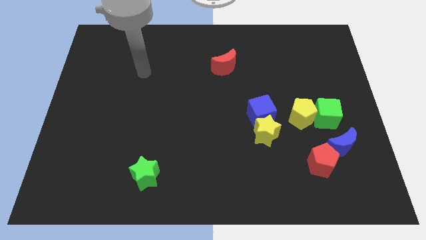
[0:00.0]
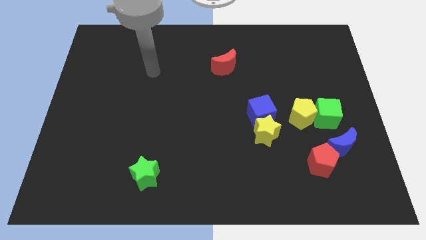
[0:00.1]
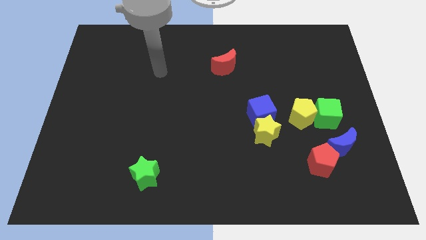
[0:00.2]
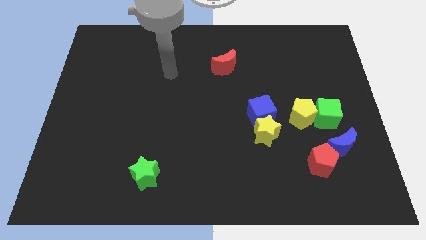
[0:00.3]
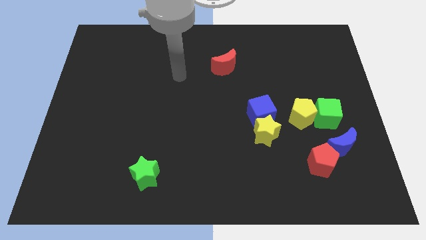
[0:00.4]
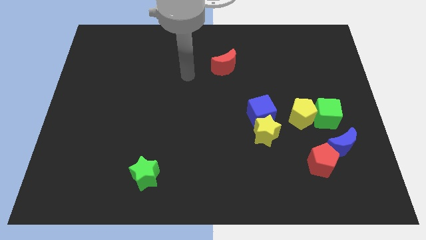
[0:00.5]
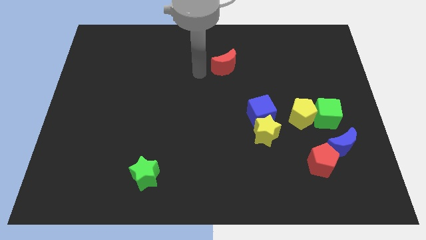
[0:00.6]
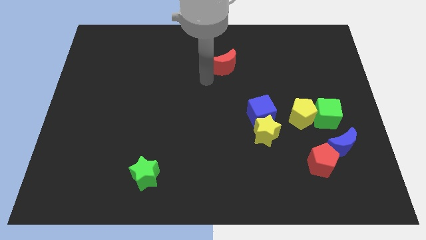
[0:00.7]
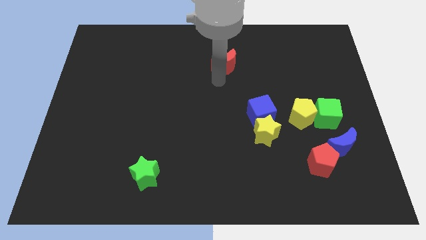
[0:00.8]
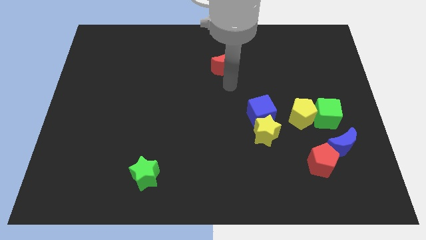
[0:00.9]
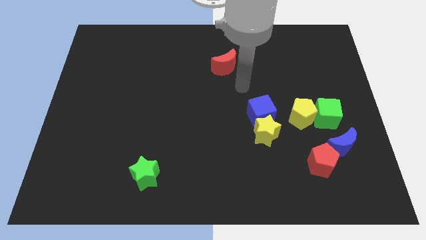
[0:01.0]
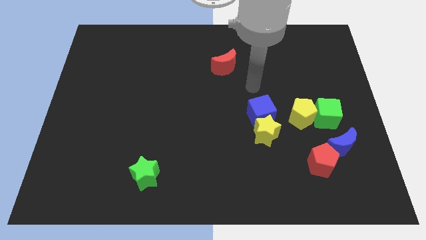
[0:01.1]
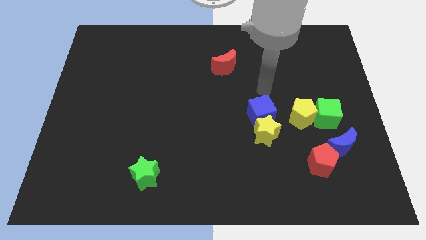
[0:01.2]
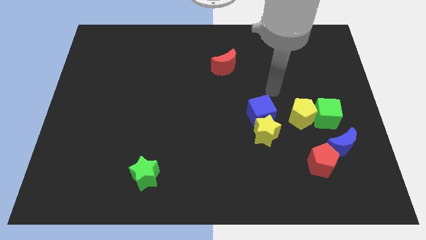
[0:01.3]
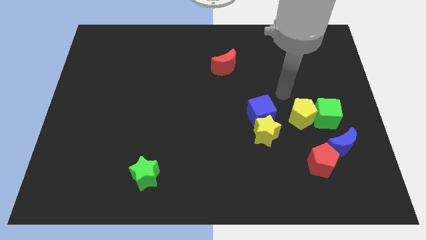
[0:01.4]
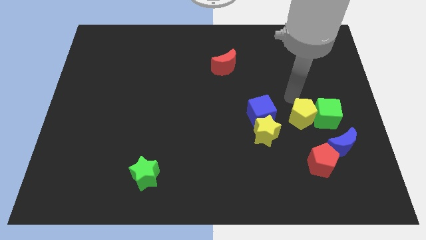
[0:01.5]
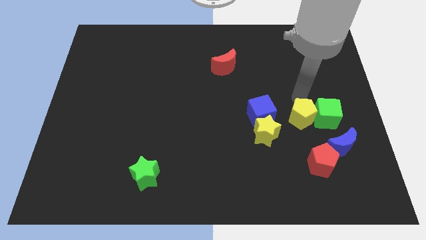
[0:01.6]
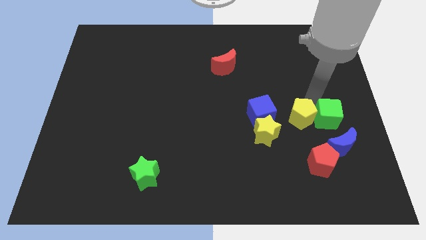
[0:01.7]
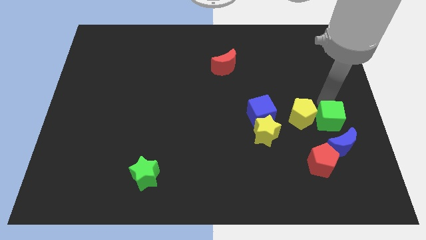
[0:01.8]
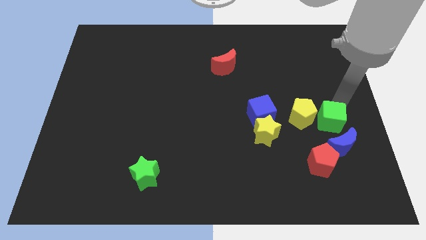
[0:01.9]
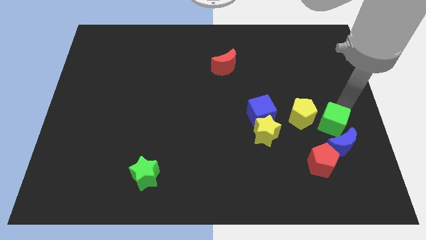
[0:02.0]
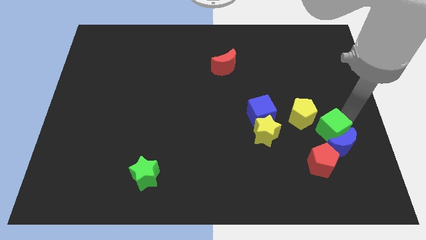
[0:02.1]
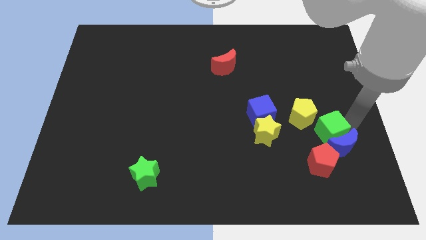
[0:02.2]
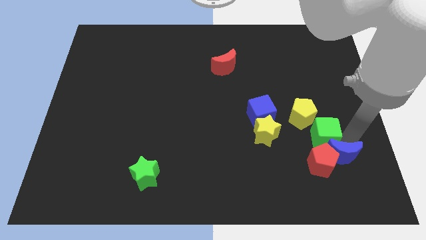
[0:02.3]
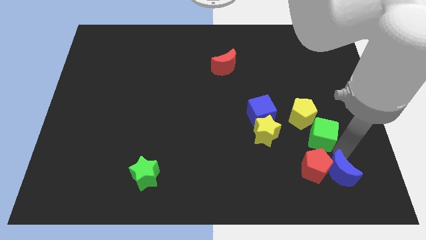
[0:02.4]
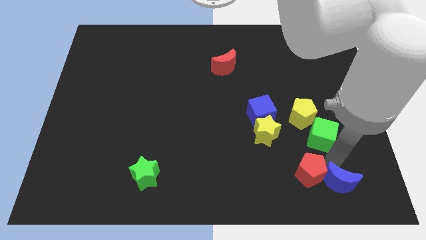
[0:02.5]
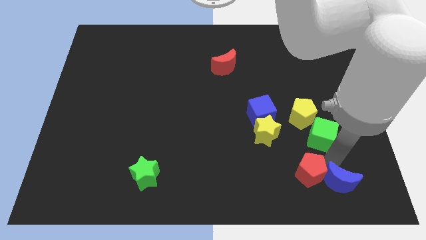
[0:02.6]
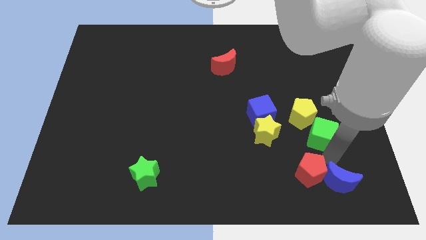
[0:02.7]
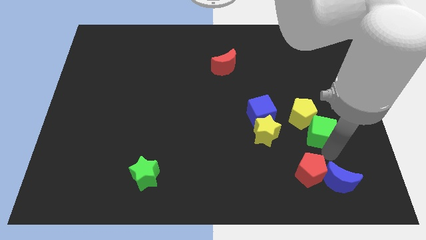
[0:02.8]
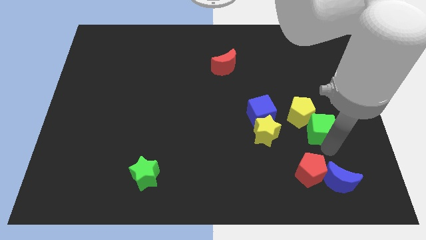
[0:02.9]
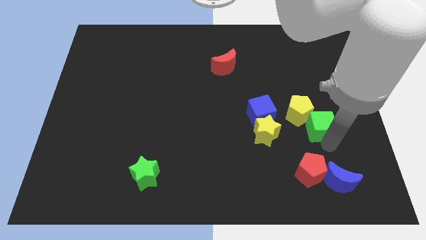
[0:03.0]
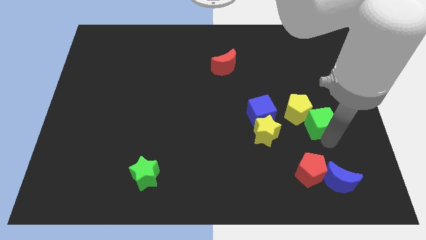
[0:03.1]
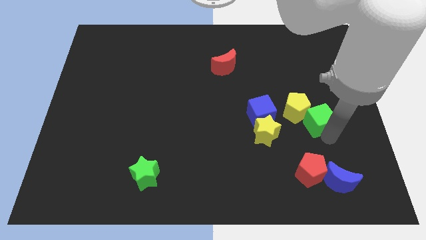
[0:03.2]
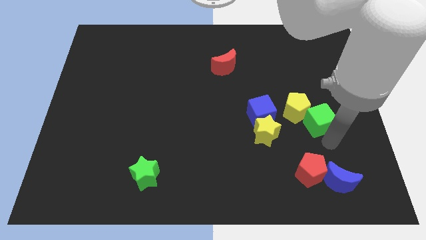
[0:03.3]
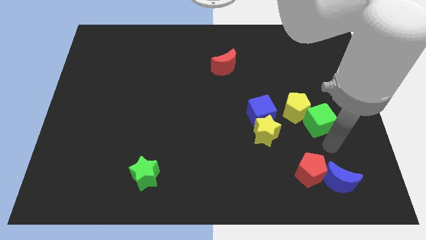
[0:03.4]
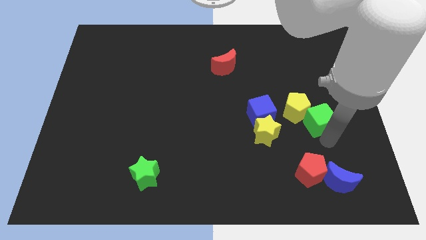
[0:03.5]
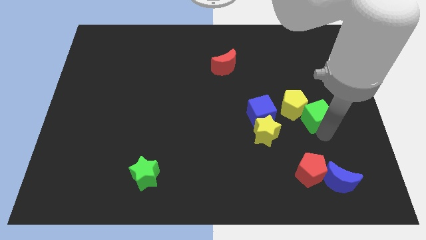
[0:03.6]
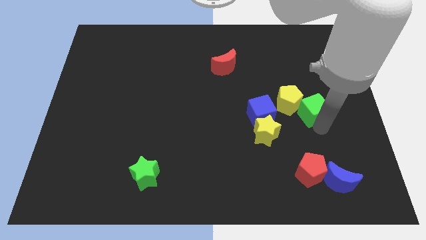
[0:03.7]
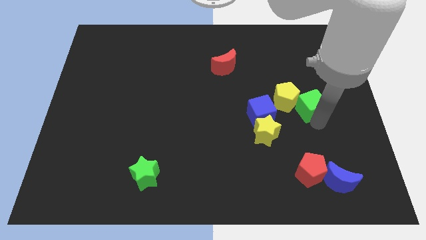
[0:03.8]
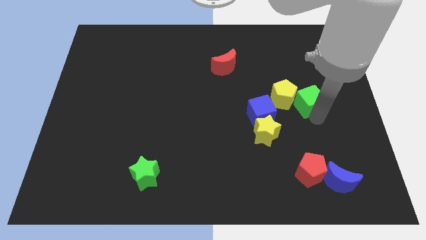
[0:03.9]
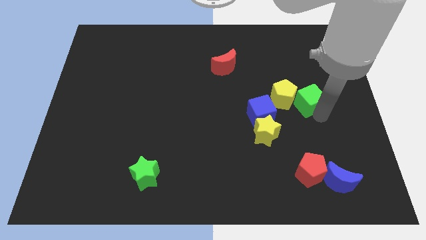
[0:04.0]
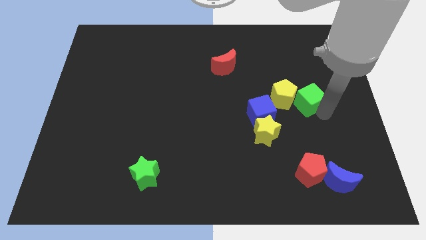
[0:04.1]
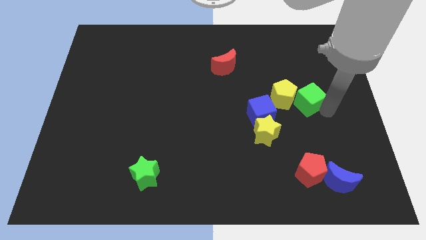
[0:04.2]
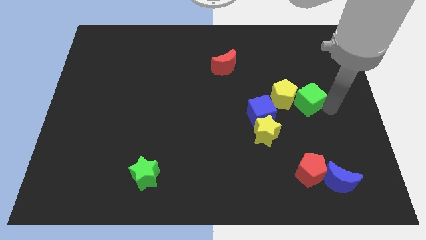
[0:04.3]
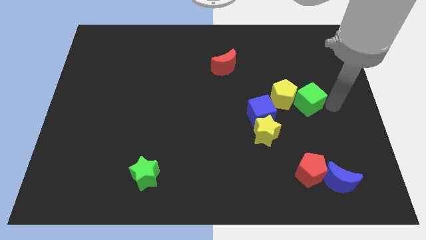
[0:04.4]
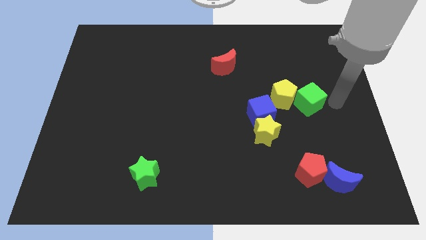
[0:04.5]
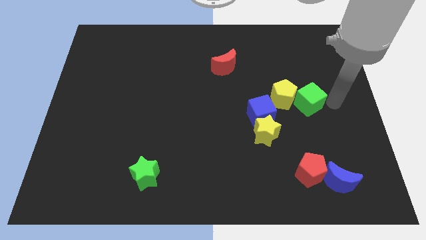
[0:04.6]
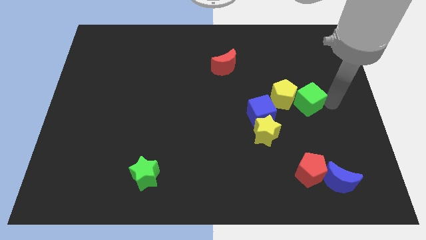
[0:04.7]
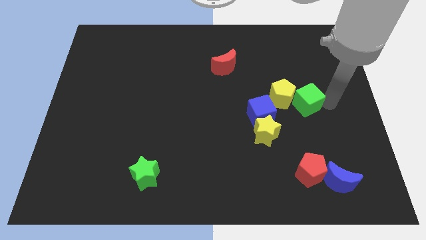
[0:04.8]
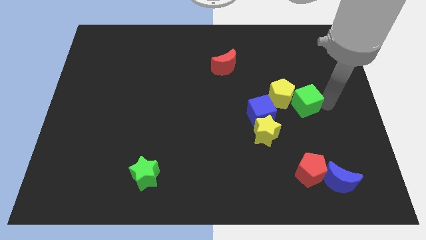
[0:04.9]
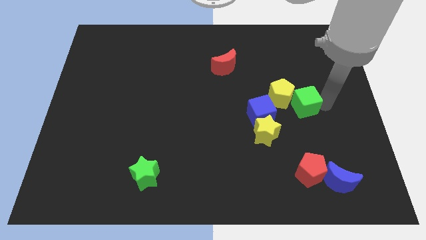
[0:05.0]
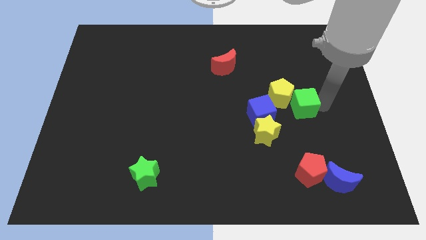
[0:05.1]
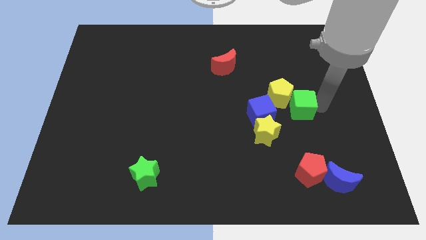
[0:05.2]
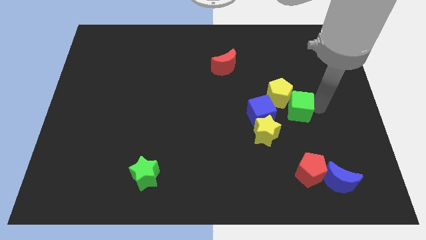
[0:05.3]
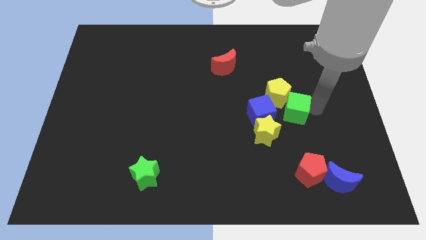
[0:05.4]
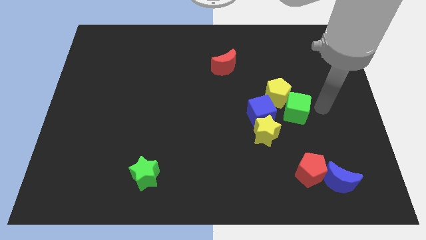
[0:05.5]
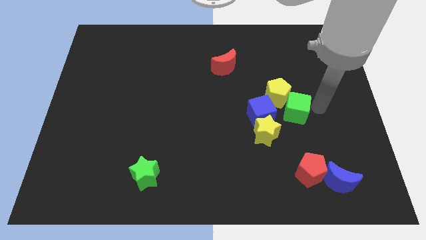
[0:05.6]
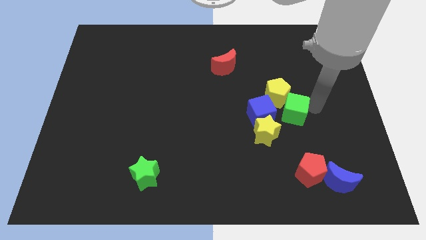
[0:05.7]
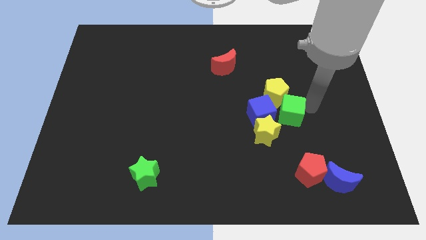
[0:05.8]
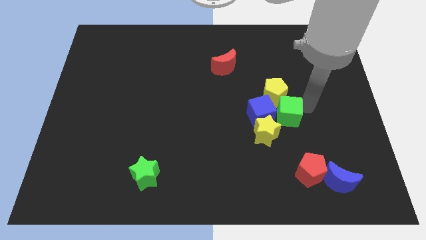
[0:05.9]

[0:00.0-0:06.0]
slide the green cube to the blue cube

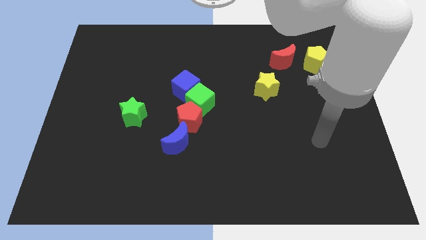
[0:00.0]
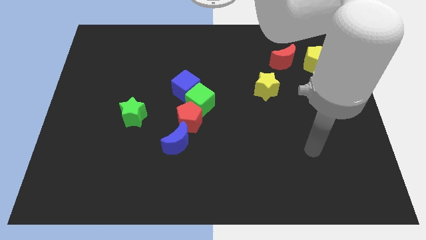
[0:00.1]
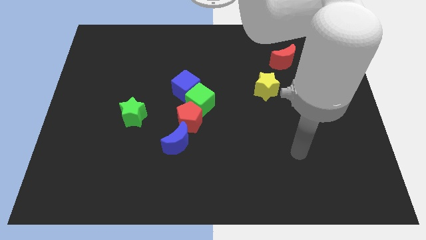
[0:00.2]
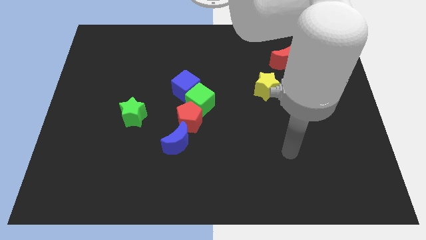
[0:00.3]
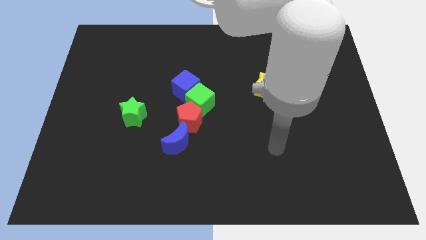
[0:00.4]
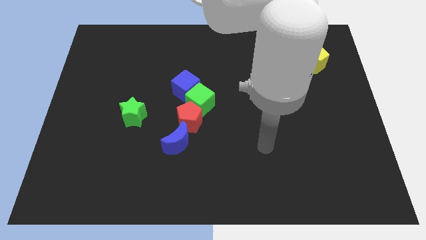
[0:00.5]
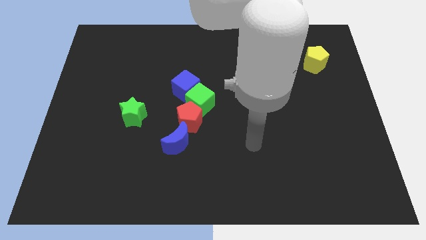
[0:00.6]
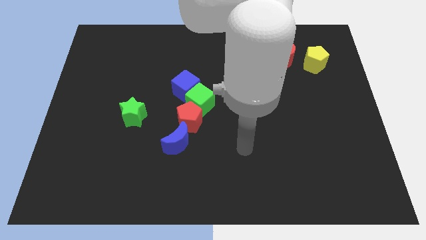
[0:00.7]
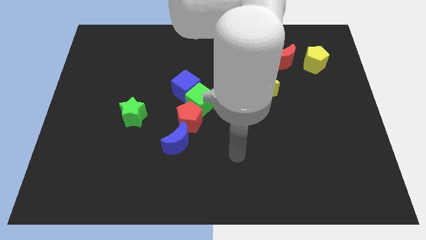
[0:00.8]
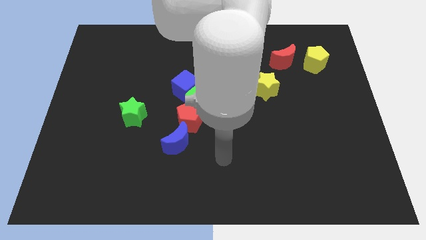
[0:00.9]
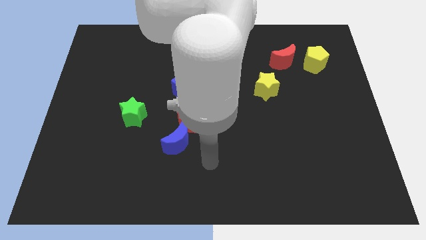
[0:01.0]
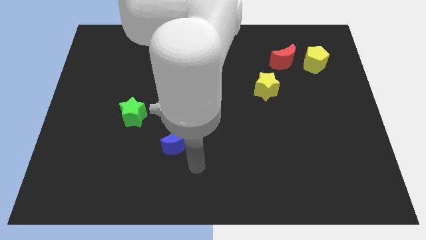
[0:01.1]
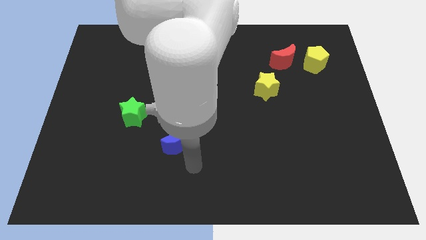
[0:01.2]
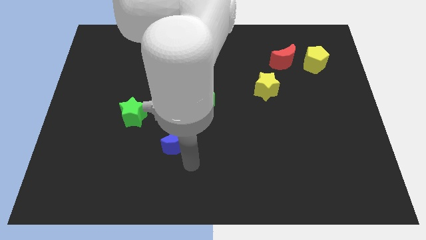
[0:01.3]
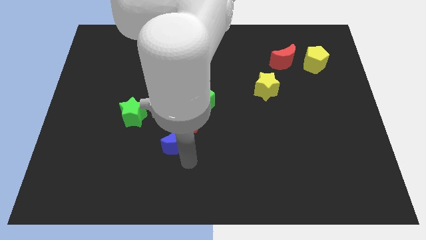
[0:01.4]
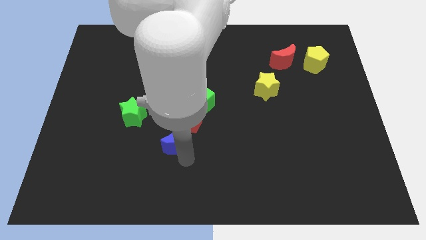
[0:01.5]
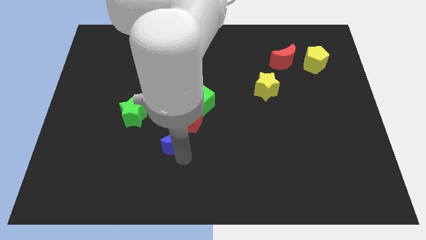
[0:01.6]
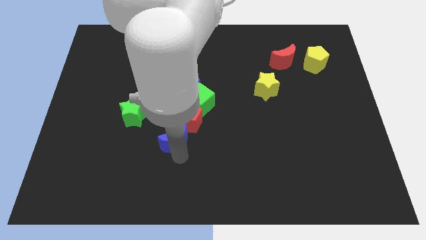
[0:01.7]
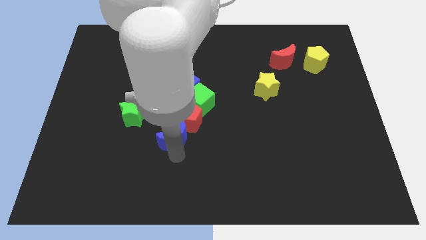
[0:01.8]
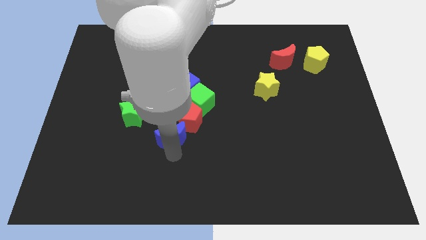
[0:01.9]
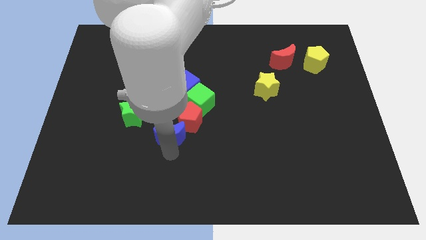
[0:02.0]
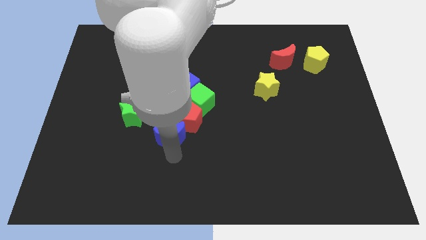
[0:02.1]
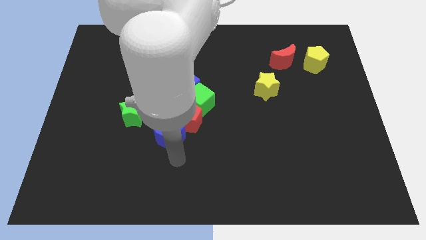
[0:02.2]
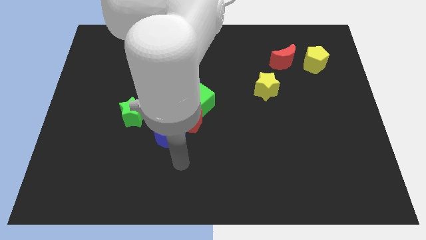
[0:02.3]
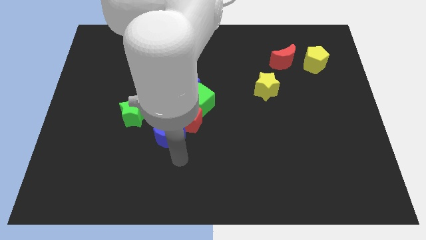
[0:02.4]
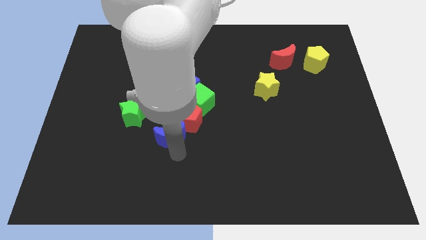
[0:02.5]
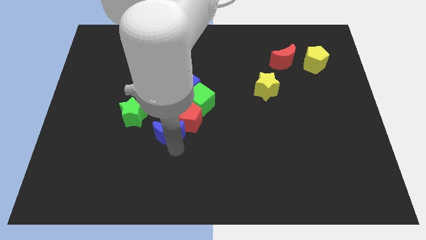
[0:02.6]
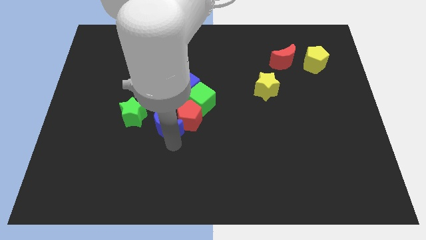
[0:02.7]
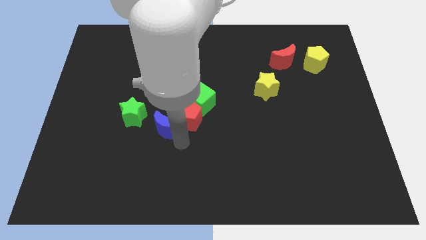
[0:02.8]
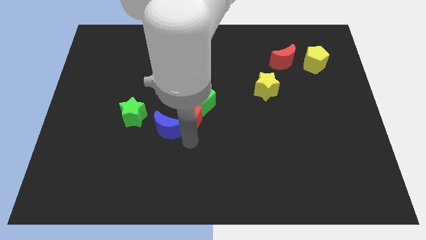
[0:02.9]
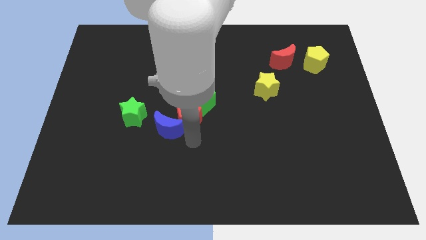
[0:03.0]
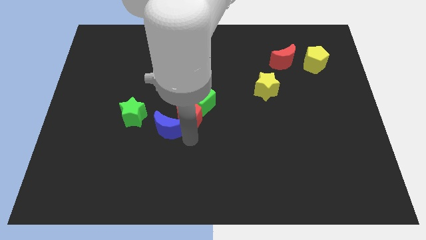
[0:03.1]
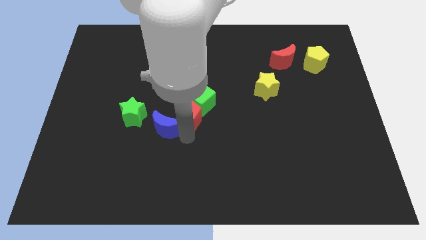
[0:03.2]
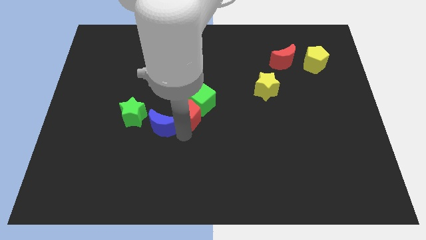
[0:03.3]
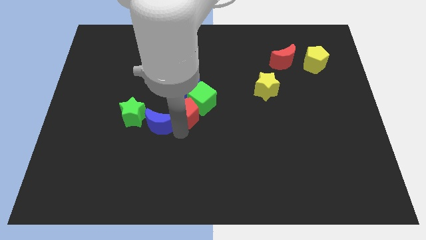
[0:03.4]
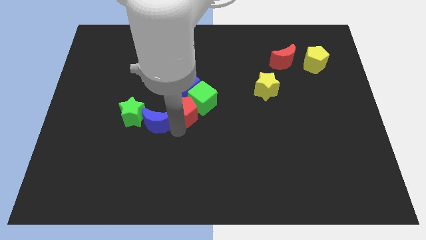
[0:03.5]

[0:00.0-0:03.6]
push the blue moon next to the green star
